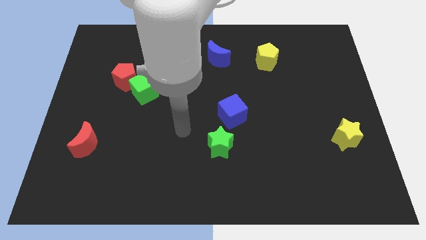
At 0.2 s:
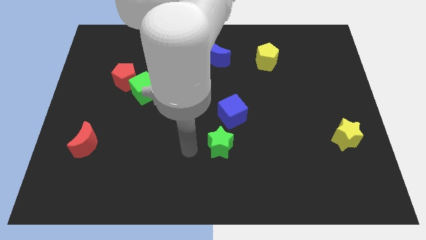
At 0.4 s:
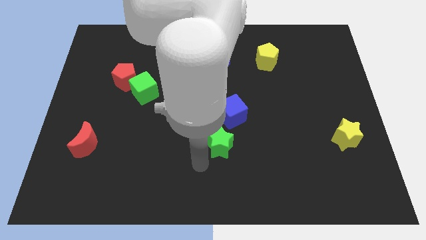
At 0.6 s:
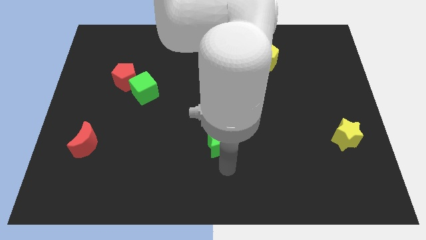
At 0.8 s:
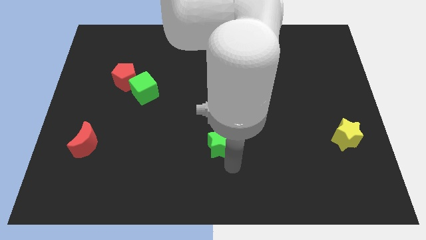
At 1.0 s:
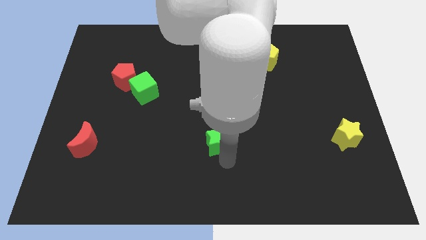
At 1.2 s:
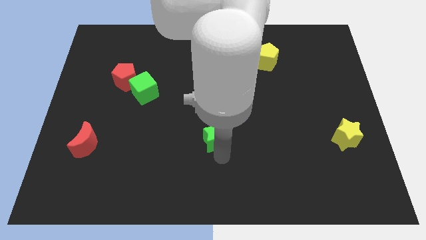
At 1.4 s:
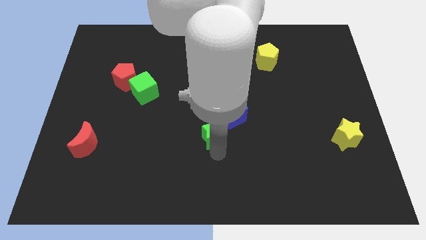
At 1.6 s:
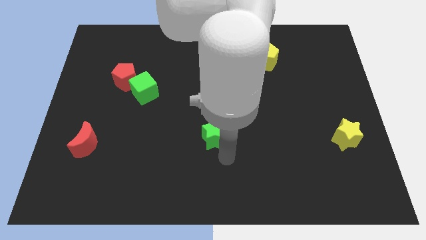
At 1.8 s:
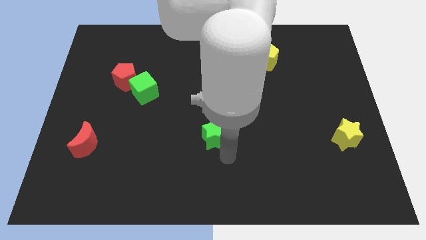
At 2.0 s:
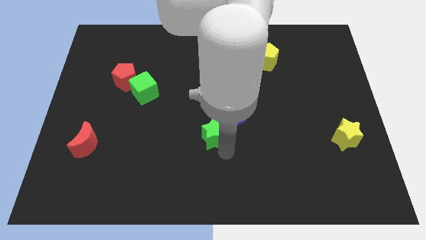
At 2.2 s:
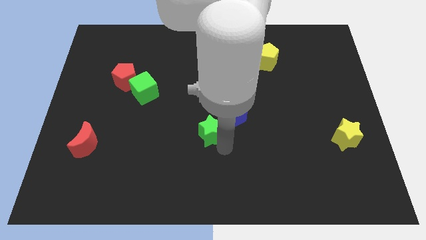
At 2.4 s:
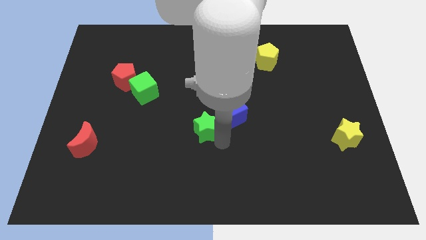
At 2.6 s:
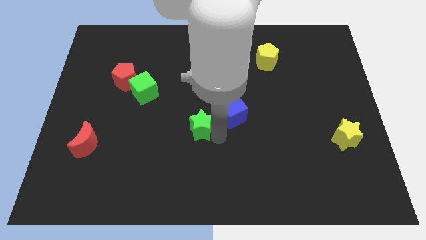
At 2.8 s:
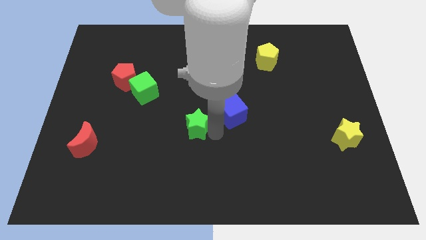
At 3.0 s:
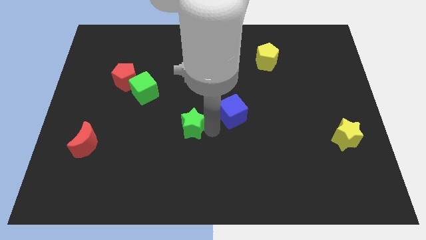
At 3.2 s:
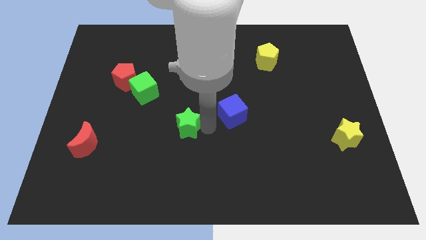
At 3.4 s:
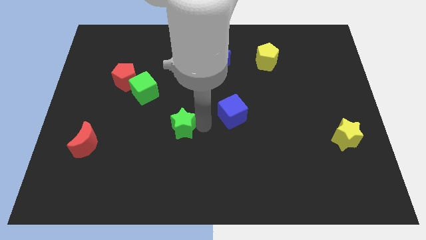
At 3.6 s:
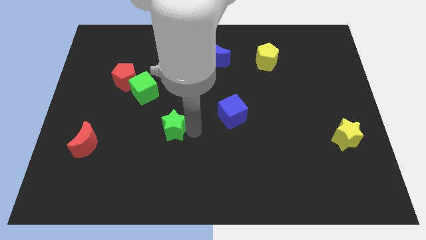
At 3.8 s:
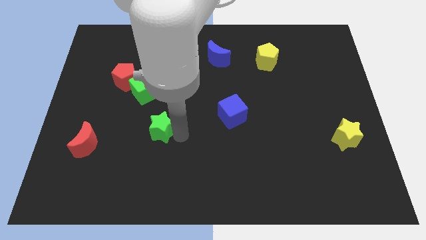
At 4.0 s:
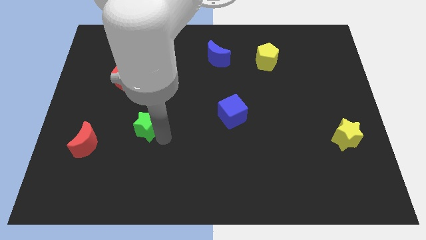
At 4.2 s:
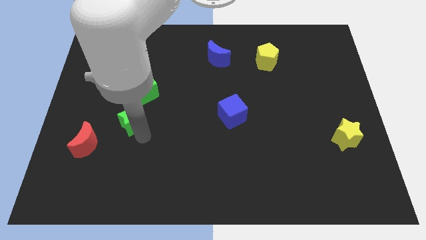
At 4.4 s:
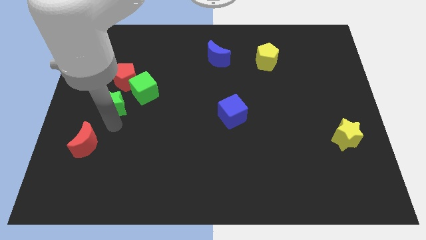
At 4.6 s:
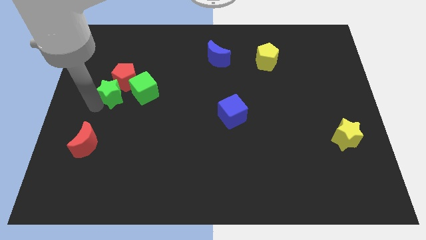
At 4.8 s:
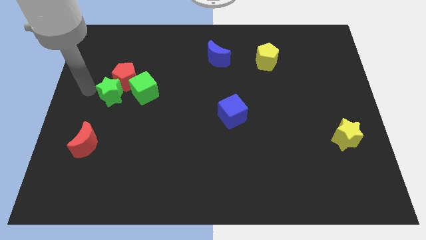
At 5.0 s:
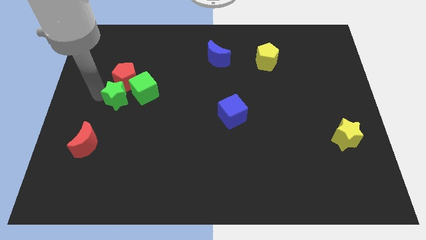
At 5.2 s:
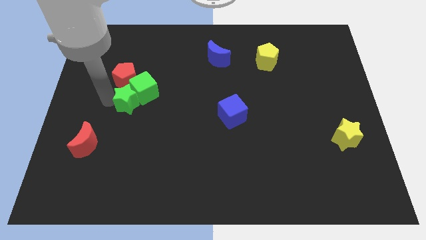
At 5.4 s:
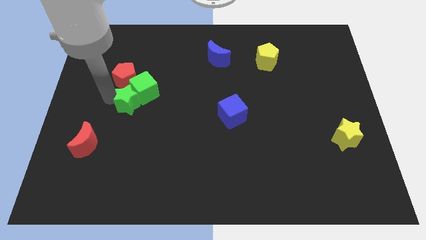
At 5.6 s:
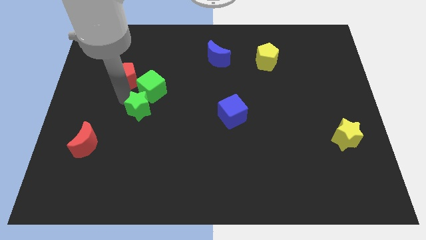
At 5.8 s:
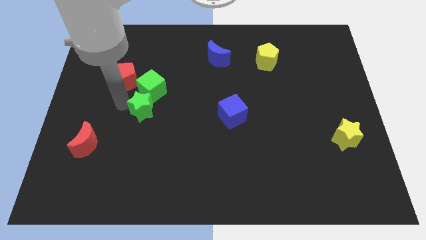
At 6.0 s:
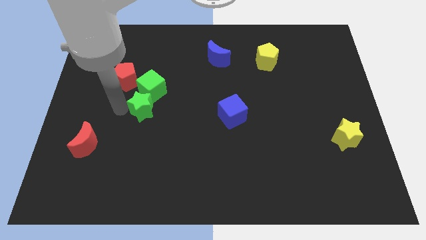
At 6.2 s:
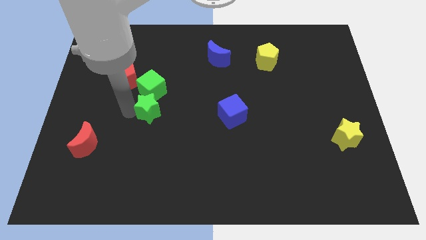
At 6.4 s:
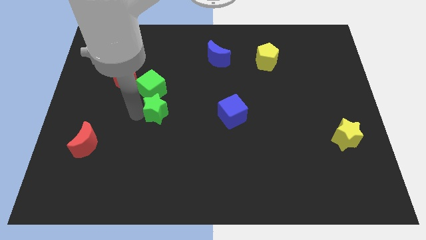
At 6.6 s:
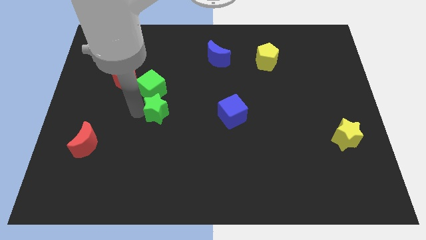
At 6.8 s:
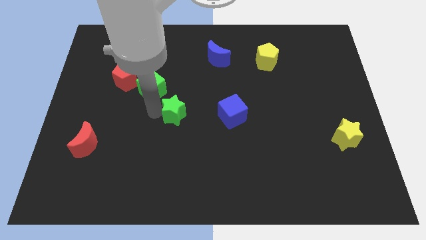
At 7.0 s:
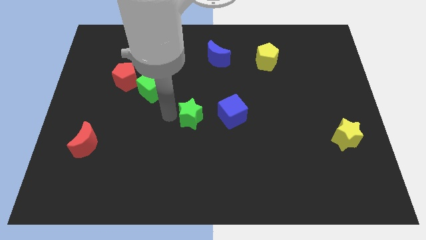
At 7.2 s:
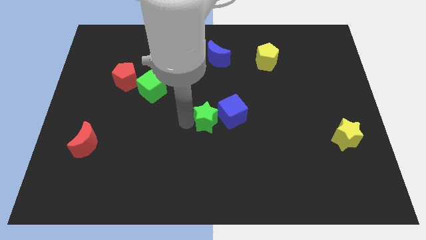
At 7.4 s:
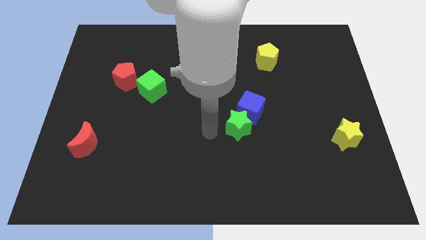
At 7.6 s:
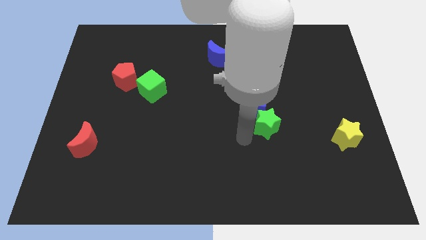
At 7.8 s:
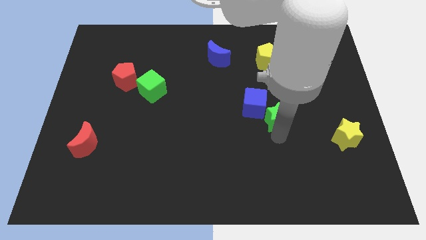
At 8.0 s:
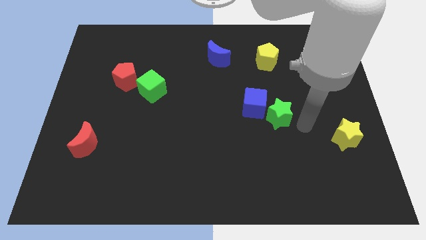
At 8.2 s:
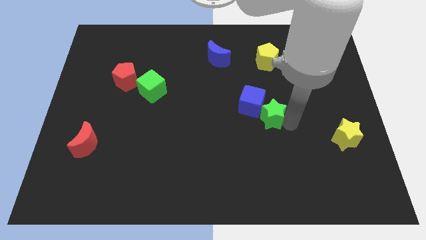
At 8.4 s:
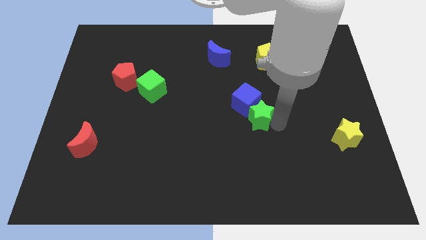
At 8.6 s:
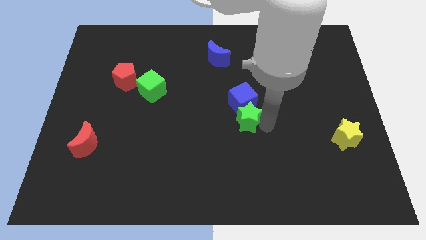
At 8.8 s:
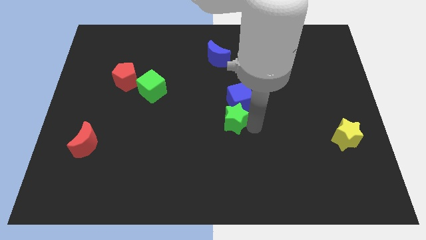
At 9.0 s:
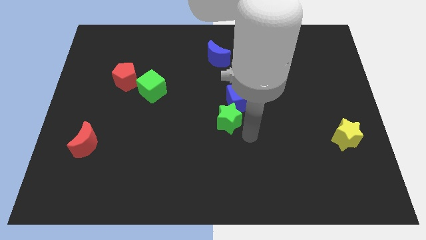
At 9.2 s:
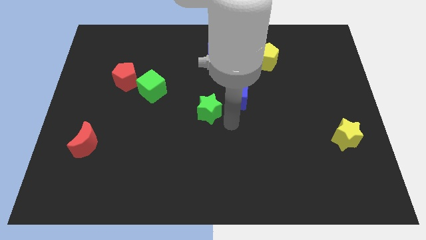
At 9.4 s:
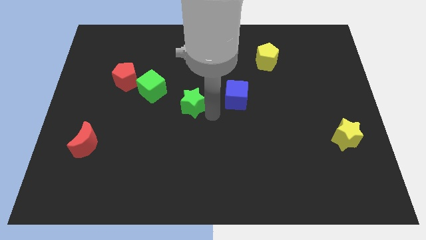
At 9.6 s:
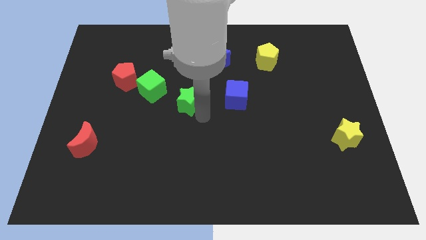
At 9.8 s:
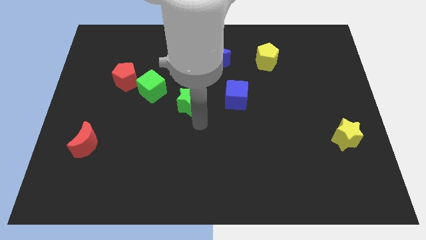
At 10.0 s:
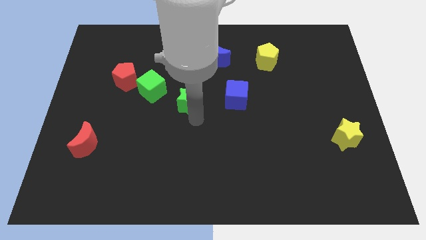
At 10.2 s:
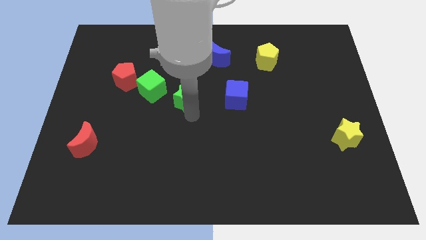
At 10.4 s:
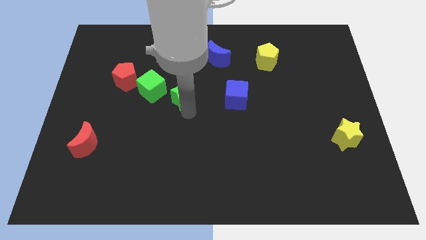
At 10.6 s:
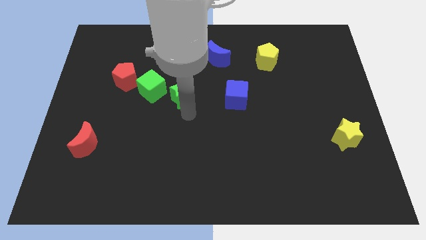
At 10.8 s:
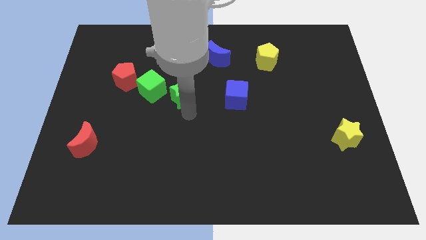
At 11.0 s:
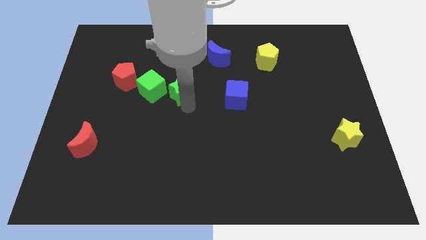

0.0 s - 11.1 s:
slide the green star just right of the red pentagon

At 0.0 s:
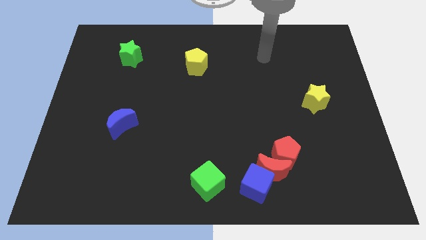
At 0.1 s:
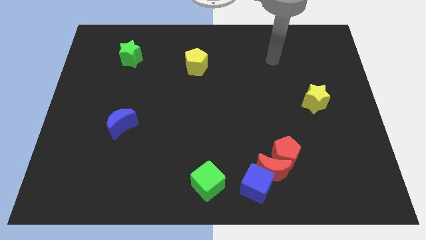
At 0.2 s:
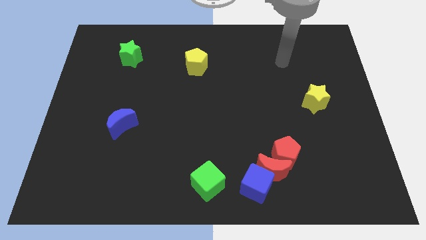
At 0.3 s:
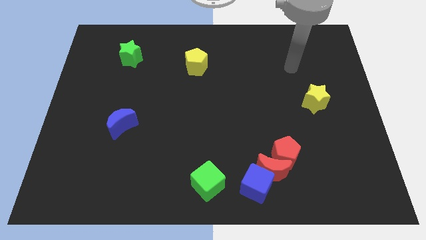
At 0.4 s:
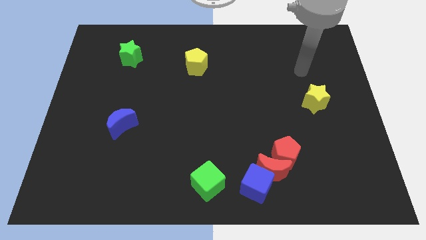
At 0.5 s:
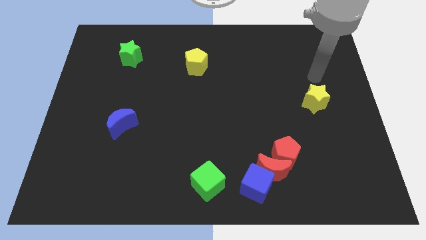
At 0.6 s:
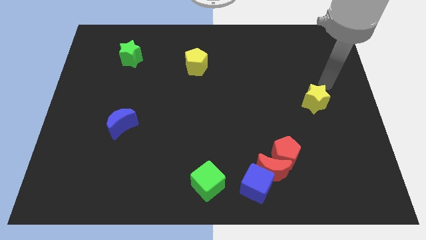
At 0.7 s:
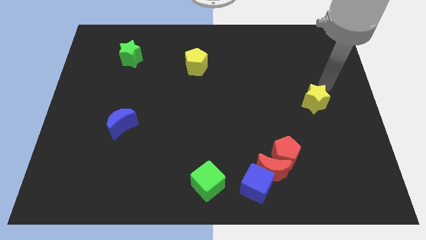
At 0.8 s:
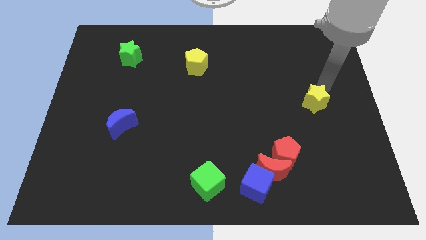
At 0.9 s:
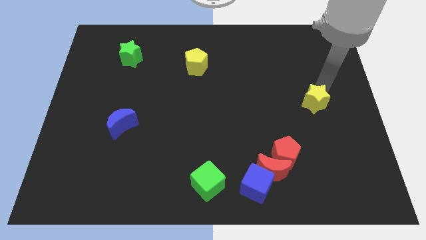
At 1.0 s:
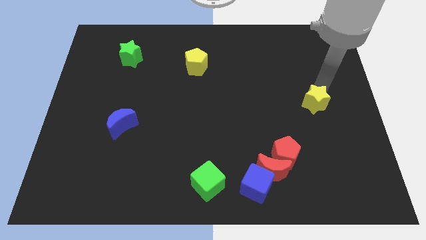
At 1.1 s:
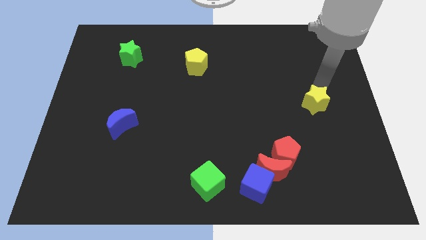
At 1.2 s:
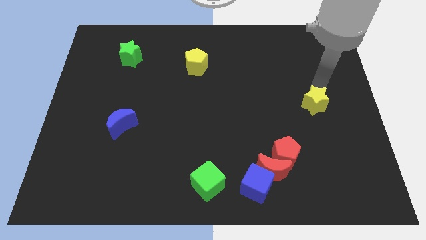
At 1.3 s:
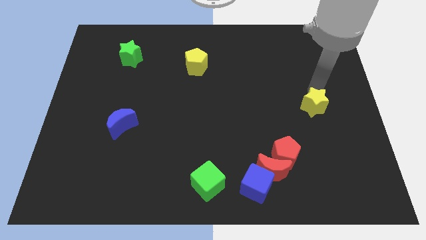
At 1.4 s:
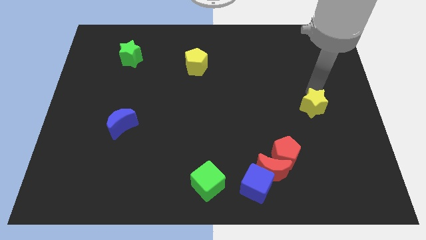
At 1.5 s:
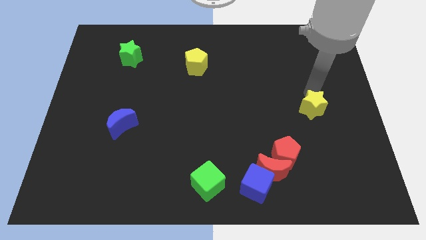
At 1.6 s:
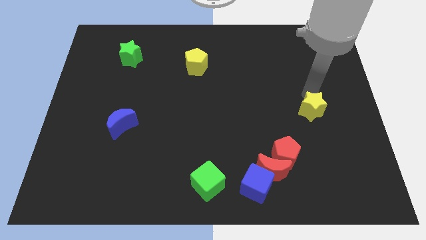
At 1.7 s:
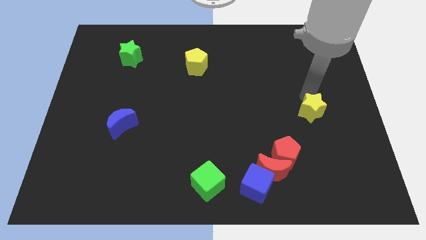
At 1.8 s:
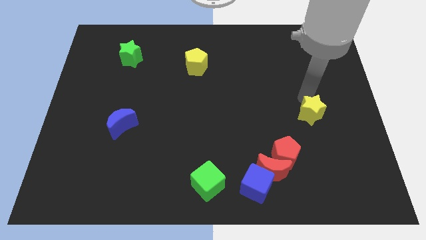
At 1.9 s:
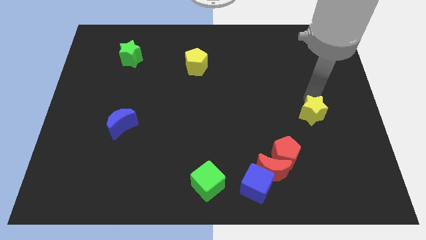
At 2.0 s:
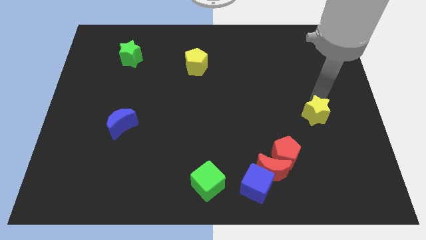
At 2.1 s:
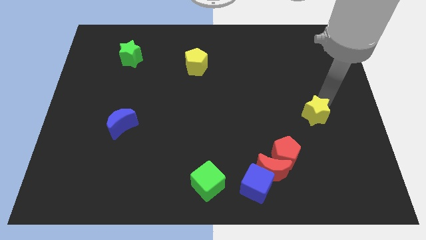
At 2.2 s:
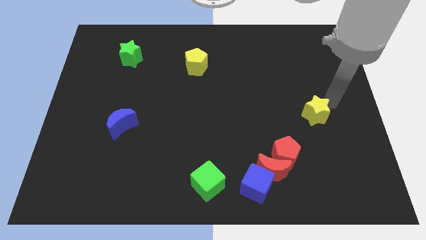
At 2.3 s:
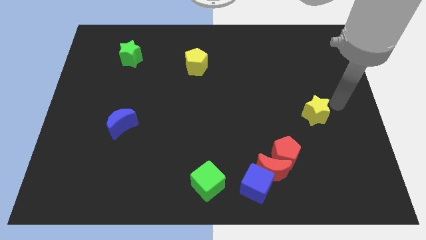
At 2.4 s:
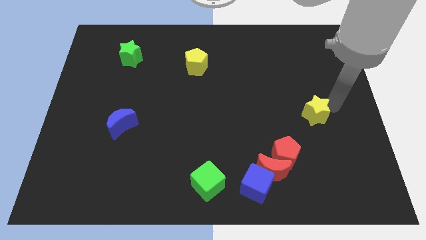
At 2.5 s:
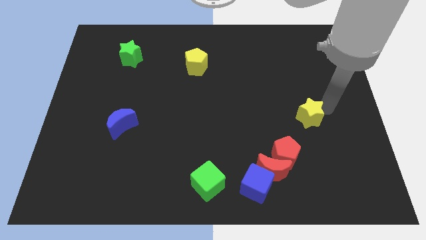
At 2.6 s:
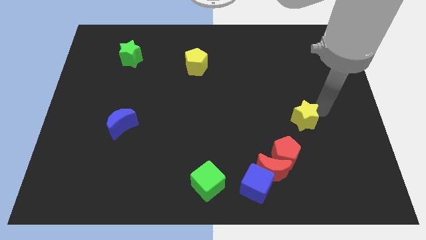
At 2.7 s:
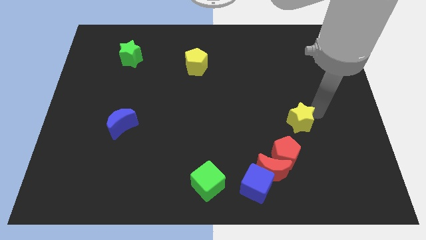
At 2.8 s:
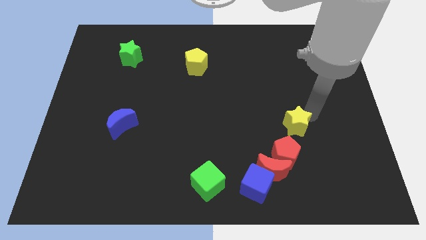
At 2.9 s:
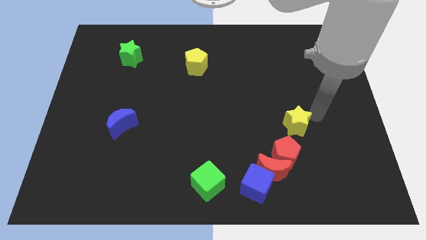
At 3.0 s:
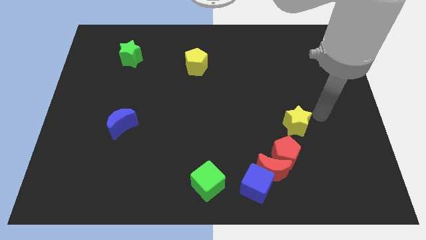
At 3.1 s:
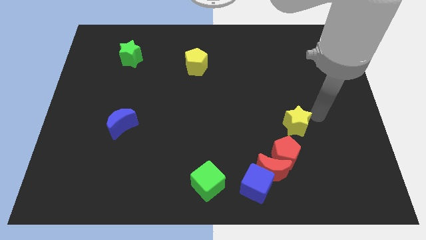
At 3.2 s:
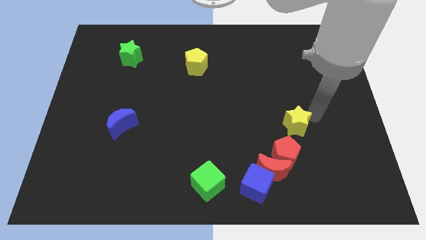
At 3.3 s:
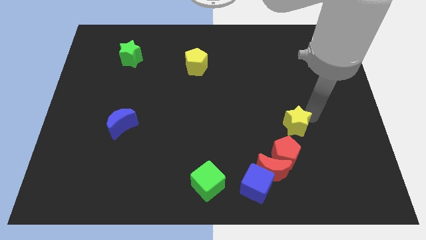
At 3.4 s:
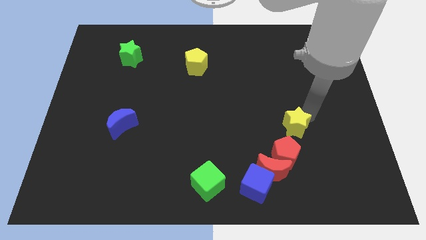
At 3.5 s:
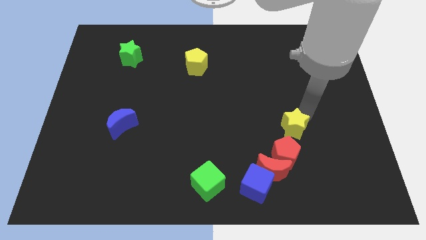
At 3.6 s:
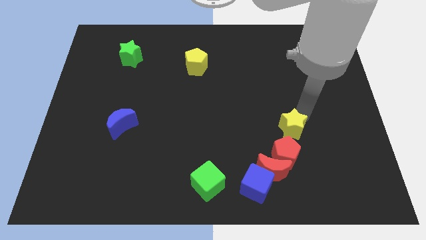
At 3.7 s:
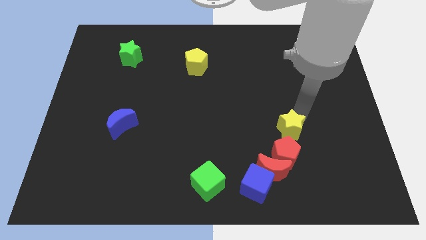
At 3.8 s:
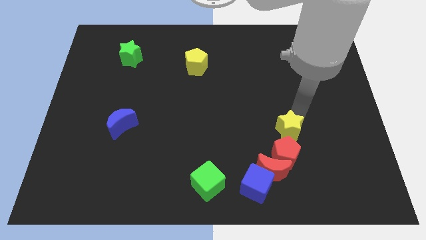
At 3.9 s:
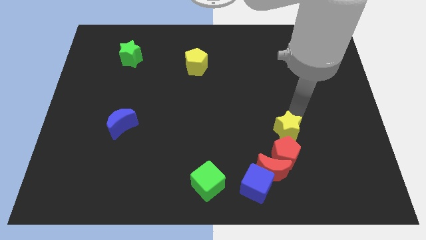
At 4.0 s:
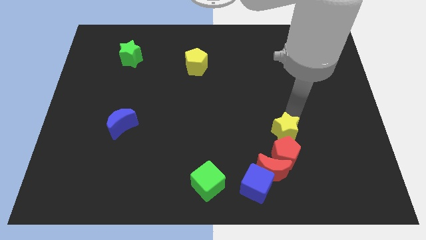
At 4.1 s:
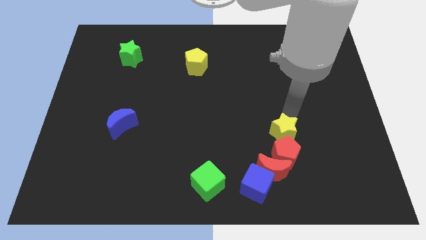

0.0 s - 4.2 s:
slide the yellow star to the top left side of the red pentagon
